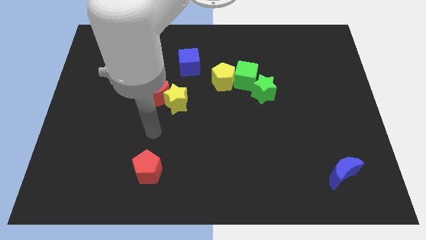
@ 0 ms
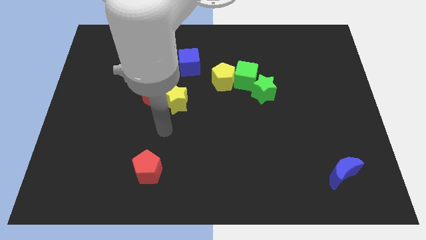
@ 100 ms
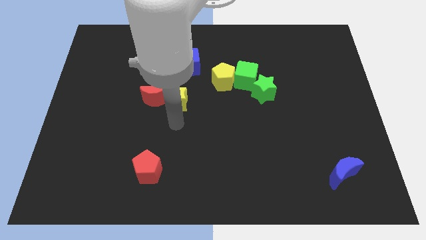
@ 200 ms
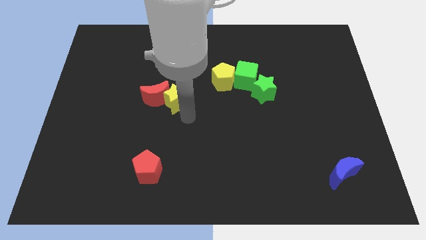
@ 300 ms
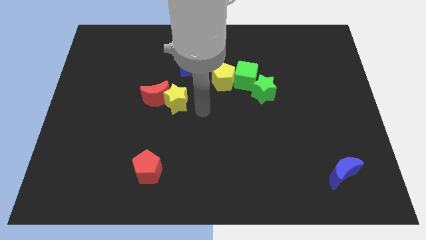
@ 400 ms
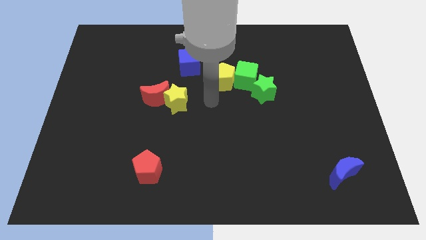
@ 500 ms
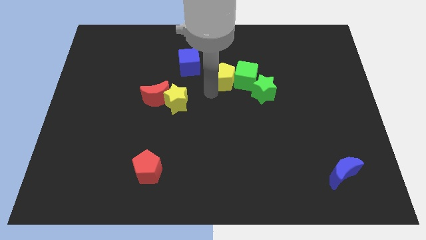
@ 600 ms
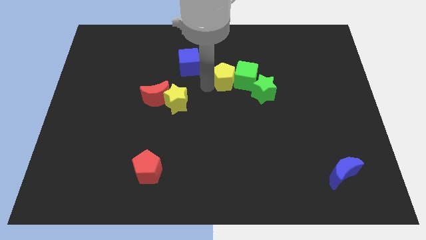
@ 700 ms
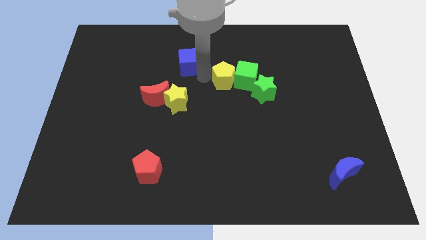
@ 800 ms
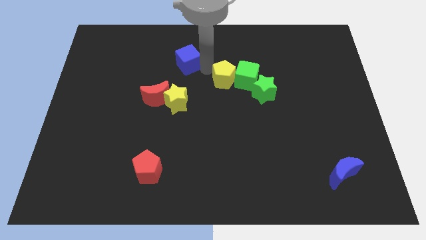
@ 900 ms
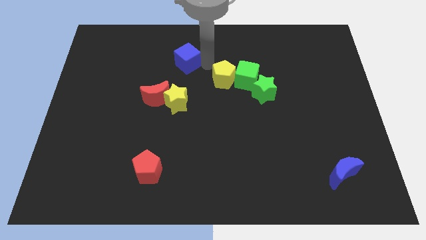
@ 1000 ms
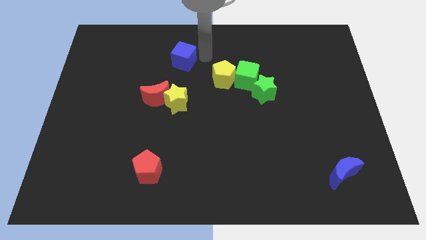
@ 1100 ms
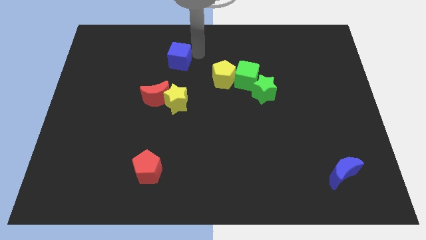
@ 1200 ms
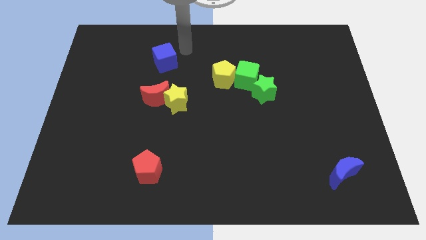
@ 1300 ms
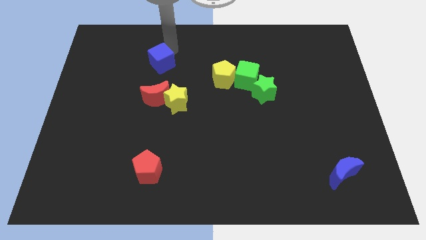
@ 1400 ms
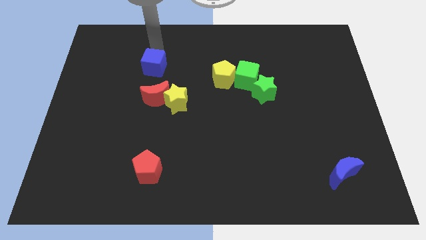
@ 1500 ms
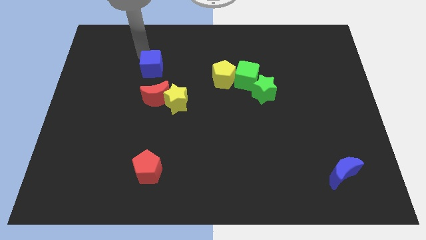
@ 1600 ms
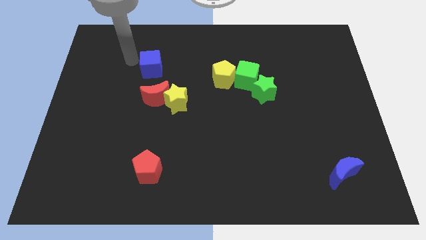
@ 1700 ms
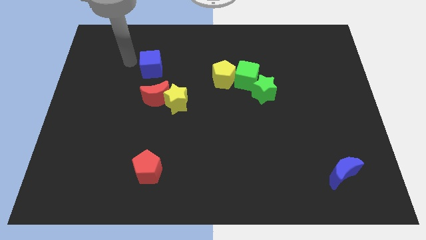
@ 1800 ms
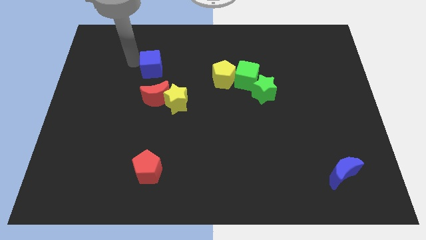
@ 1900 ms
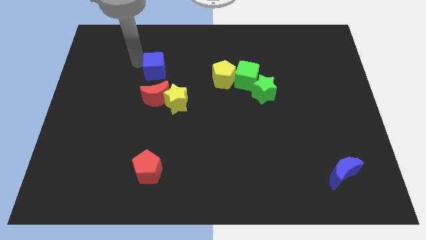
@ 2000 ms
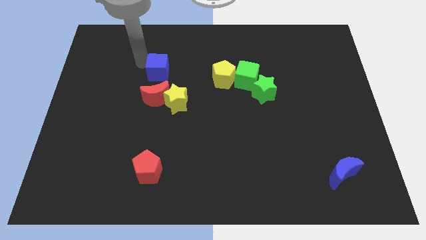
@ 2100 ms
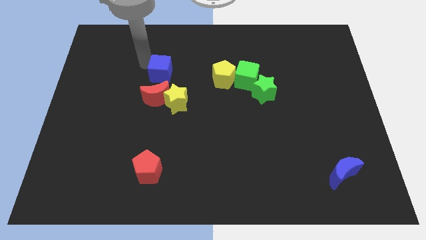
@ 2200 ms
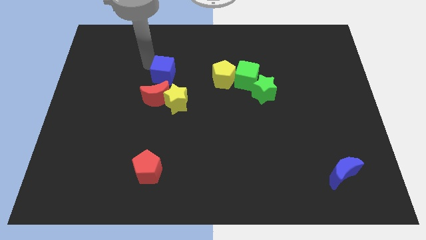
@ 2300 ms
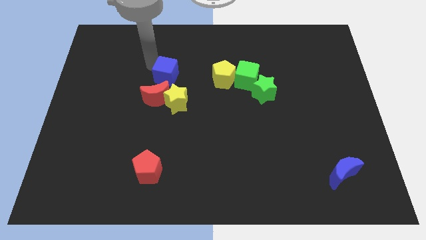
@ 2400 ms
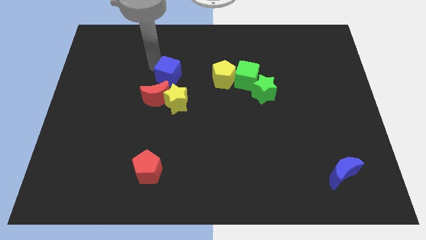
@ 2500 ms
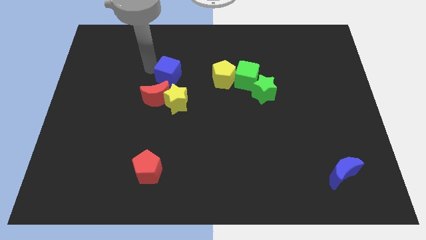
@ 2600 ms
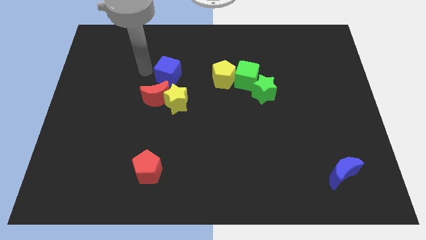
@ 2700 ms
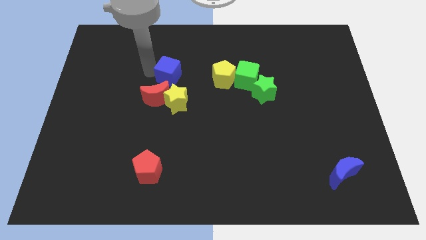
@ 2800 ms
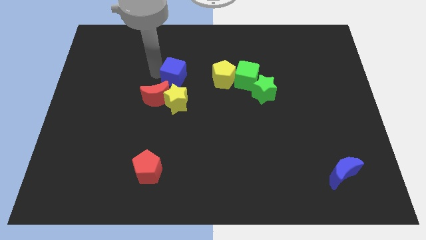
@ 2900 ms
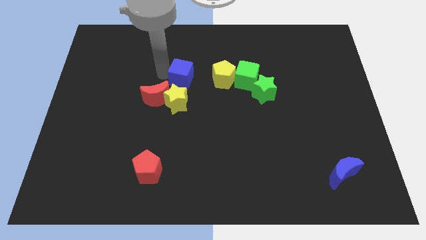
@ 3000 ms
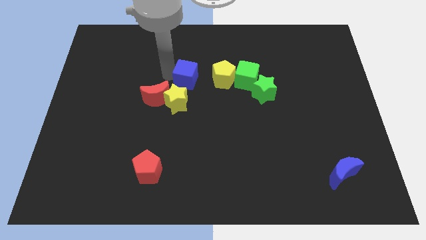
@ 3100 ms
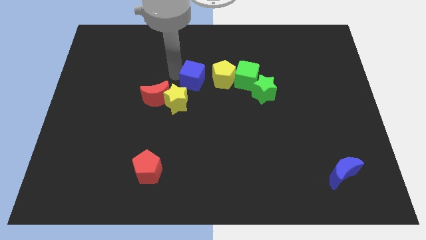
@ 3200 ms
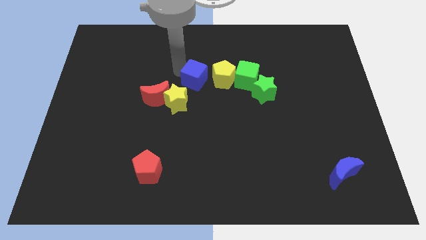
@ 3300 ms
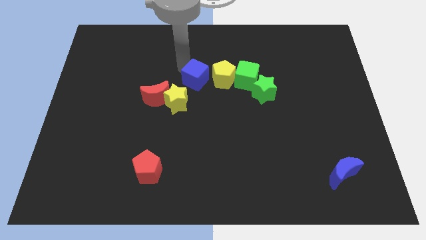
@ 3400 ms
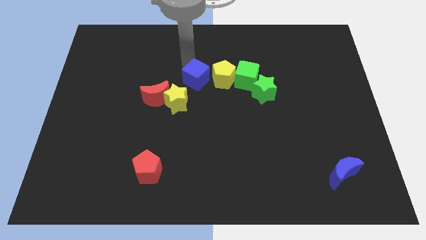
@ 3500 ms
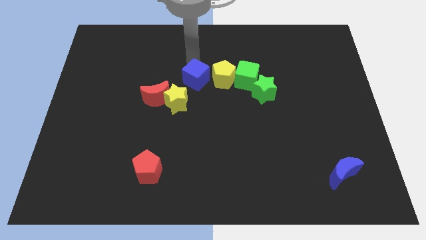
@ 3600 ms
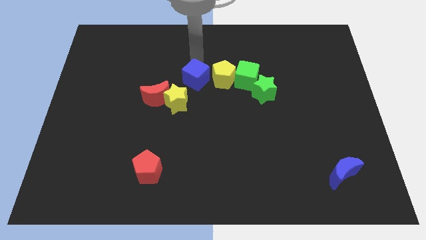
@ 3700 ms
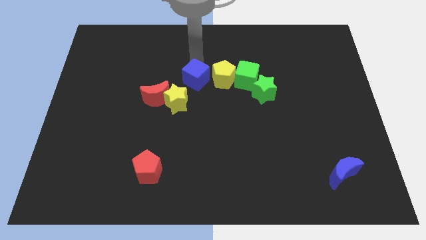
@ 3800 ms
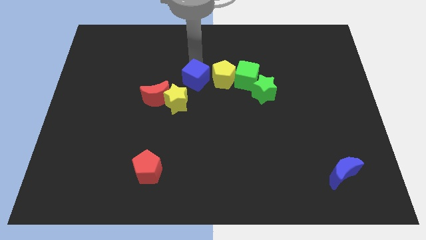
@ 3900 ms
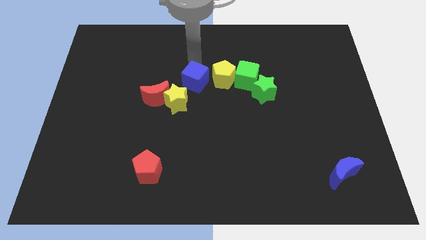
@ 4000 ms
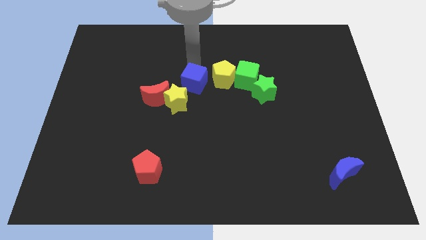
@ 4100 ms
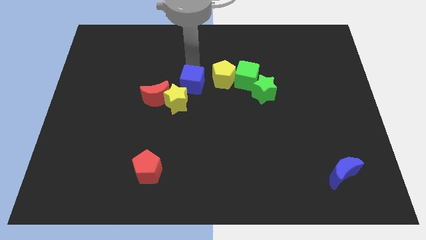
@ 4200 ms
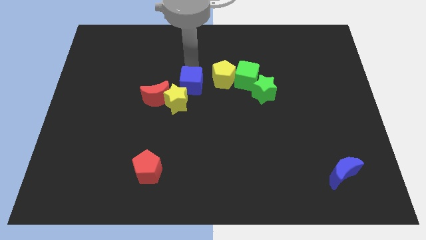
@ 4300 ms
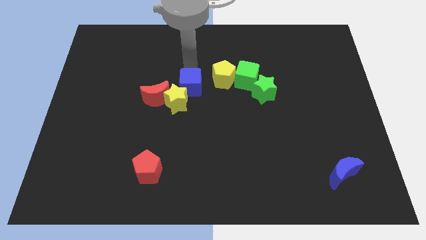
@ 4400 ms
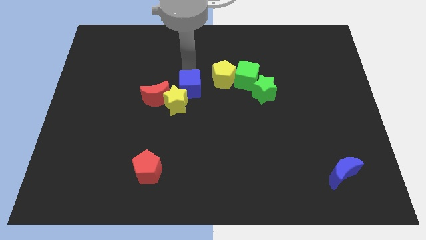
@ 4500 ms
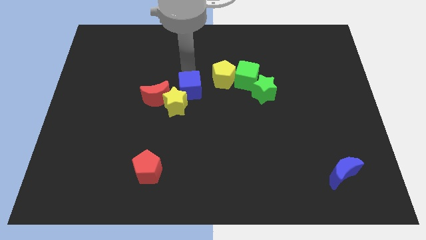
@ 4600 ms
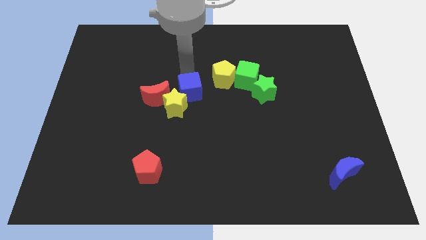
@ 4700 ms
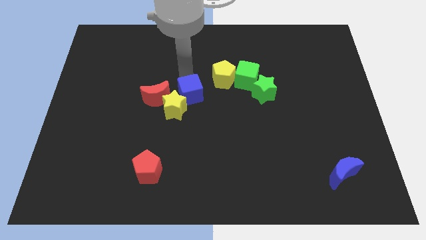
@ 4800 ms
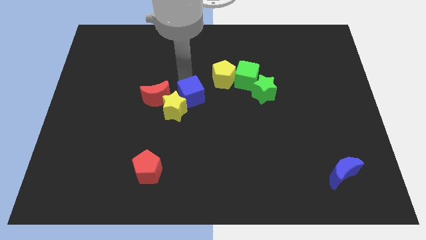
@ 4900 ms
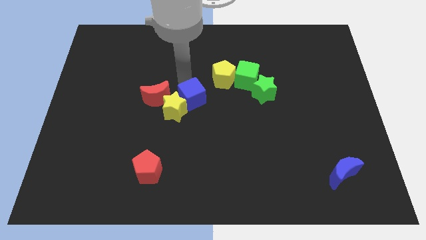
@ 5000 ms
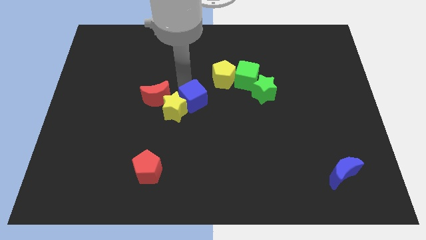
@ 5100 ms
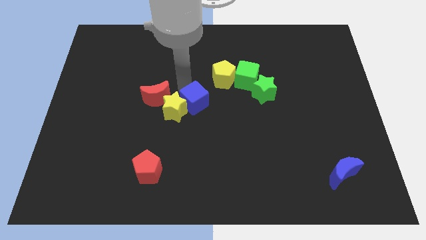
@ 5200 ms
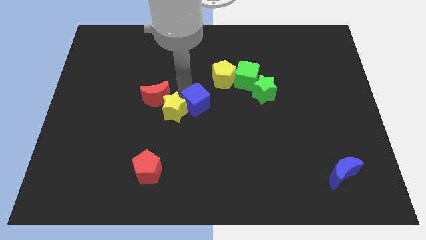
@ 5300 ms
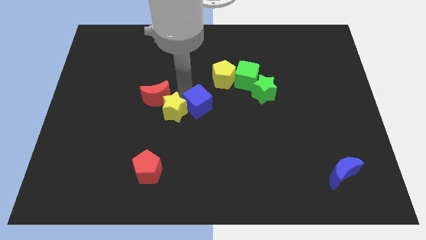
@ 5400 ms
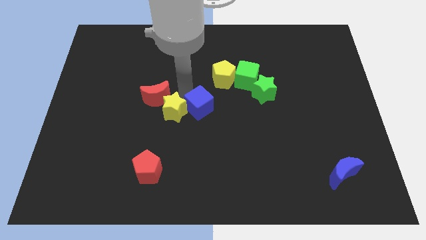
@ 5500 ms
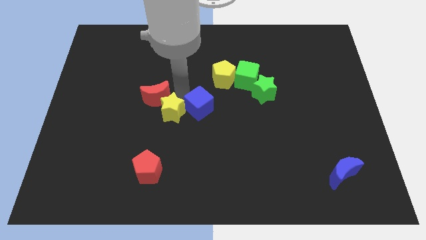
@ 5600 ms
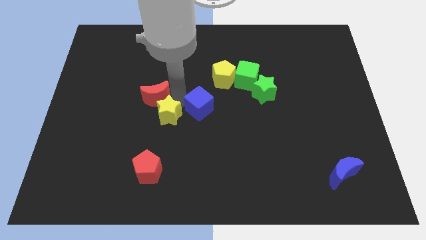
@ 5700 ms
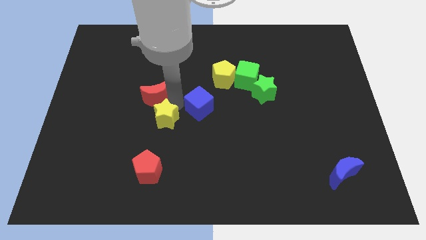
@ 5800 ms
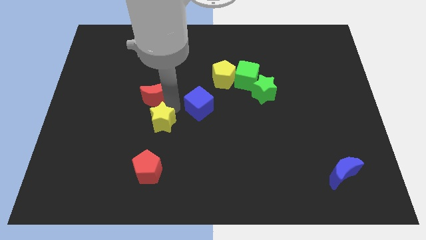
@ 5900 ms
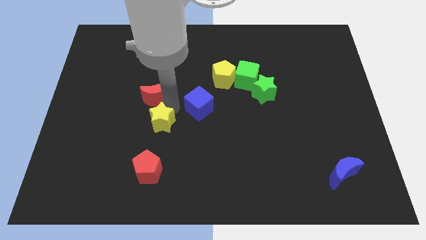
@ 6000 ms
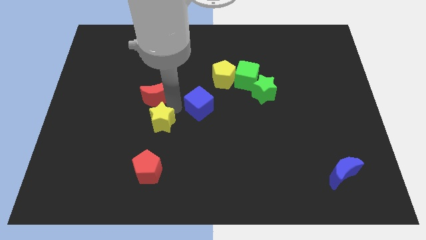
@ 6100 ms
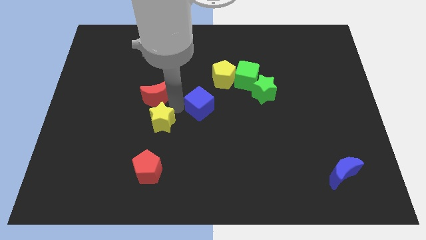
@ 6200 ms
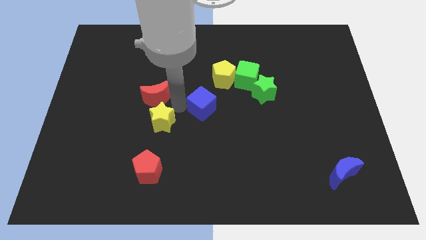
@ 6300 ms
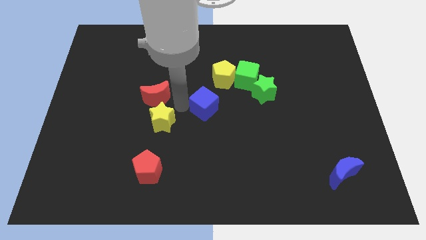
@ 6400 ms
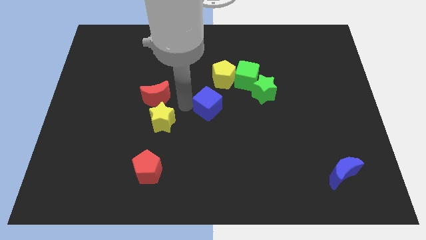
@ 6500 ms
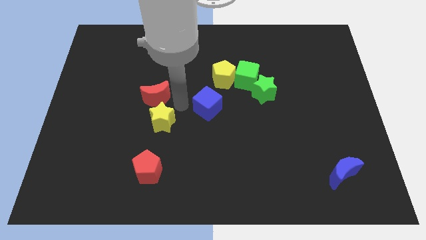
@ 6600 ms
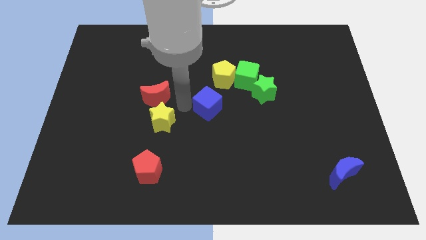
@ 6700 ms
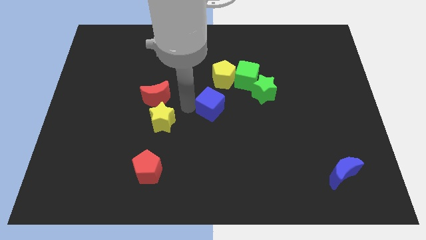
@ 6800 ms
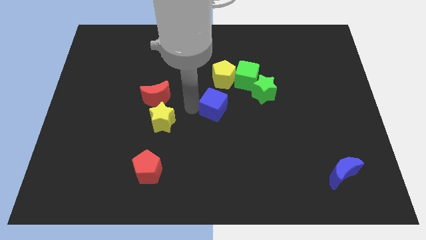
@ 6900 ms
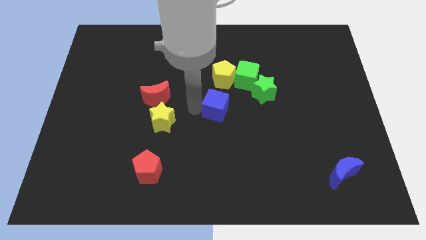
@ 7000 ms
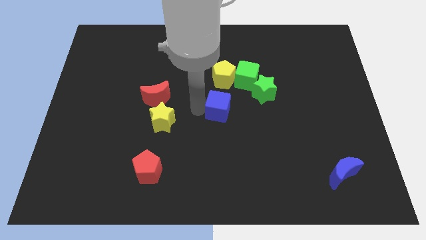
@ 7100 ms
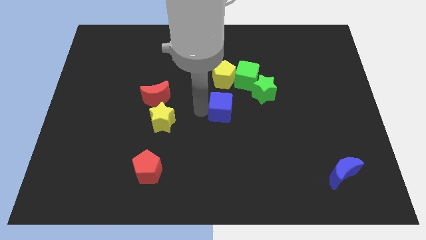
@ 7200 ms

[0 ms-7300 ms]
move the blue cube diagonally down and to the left of the green star
